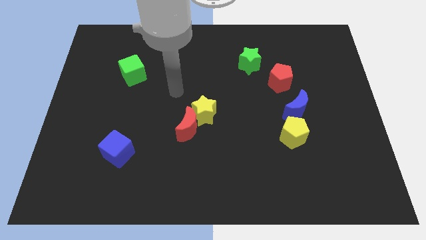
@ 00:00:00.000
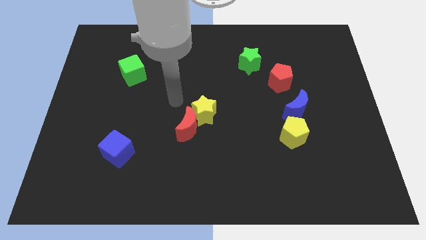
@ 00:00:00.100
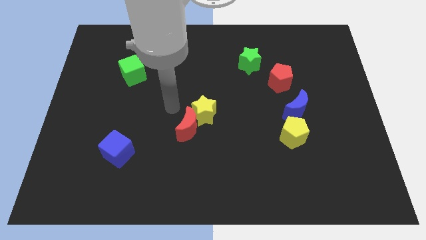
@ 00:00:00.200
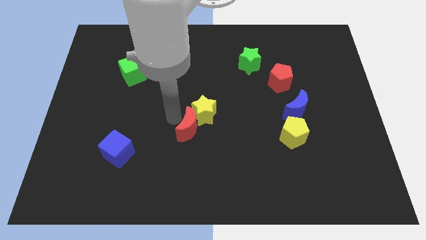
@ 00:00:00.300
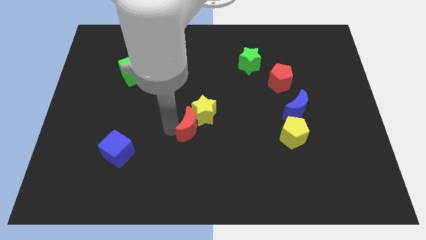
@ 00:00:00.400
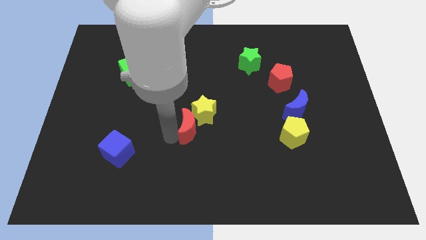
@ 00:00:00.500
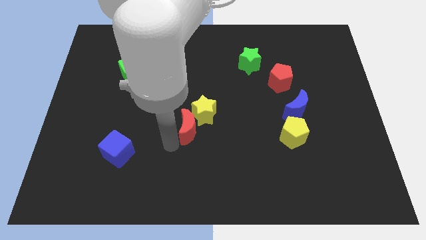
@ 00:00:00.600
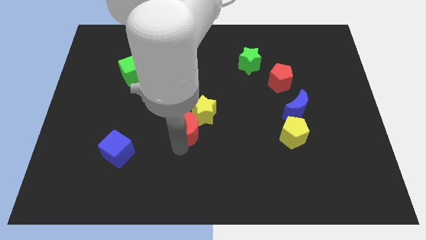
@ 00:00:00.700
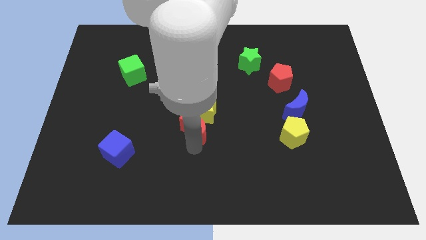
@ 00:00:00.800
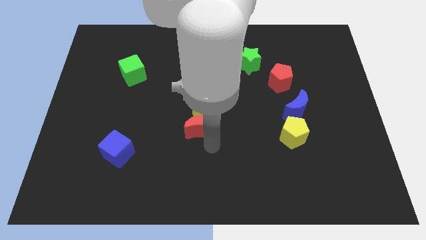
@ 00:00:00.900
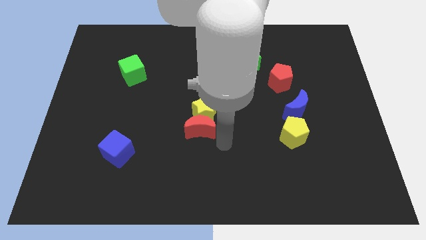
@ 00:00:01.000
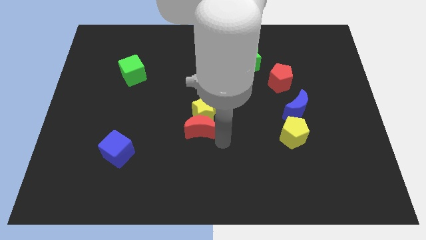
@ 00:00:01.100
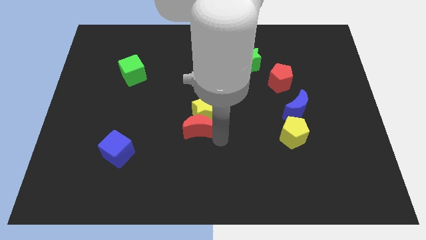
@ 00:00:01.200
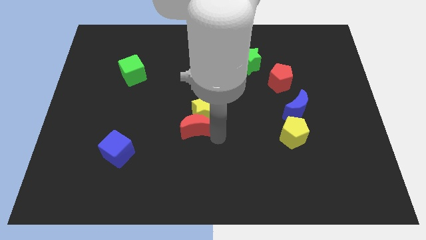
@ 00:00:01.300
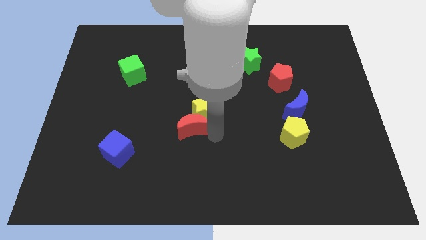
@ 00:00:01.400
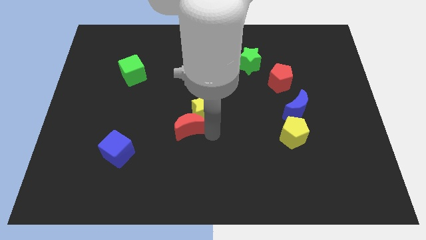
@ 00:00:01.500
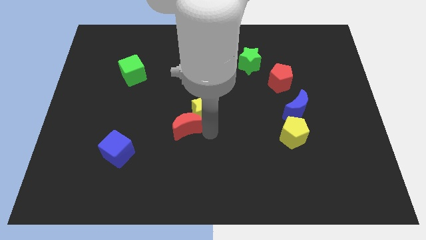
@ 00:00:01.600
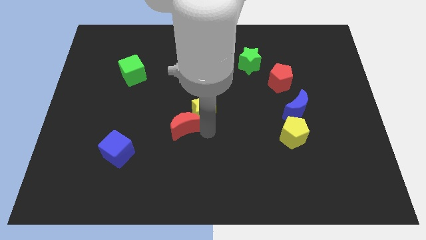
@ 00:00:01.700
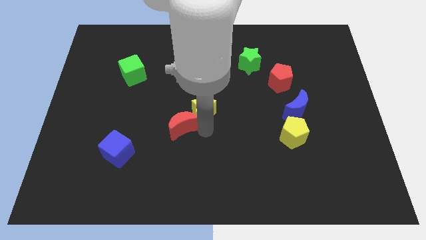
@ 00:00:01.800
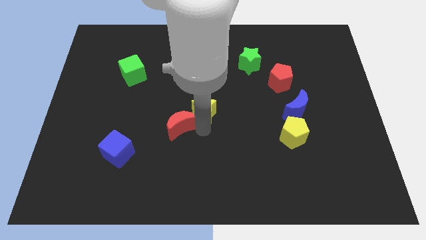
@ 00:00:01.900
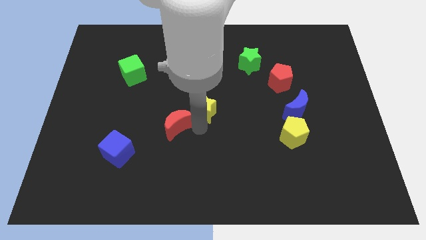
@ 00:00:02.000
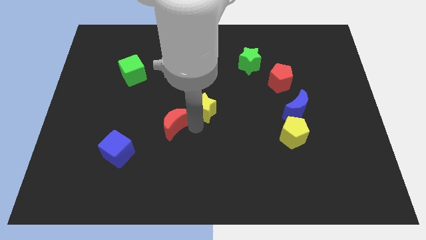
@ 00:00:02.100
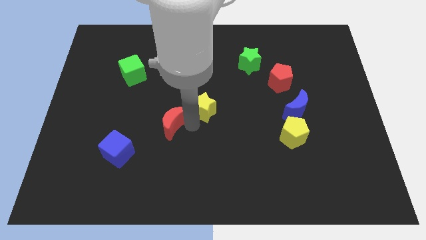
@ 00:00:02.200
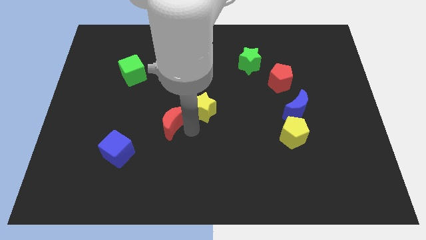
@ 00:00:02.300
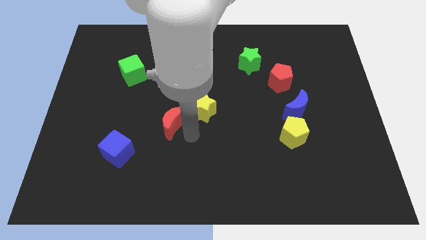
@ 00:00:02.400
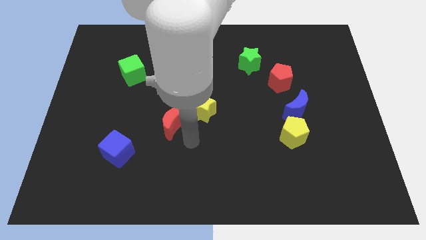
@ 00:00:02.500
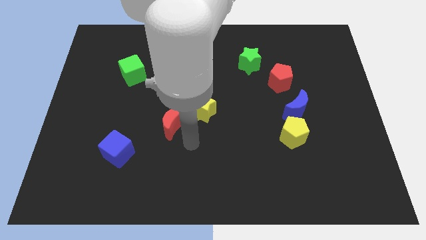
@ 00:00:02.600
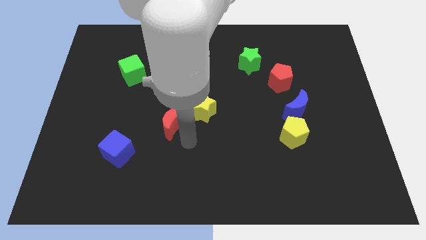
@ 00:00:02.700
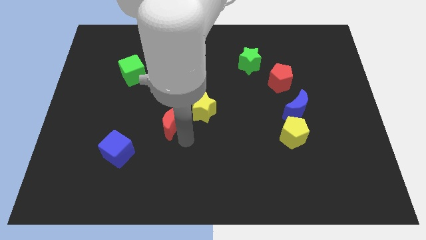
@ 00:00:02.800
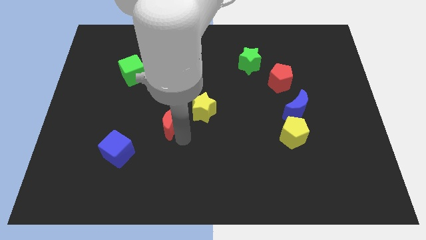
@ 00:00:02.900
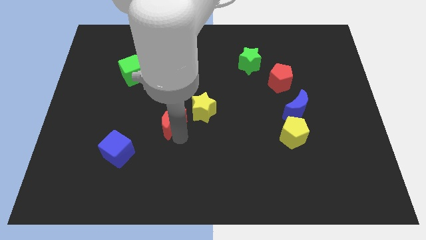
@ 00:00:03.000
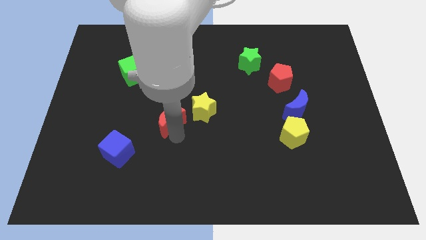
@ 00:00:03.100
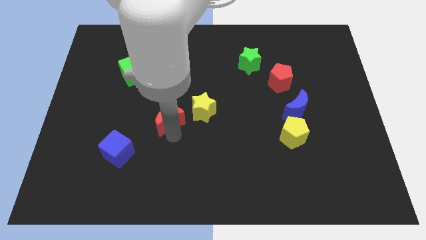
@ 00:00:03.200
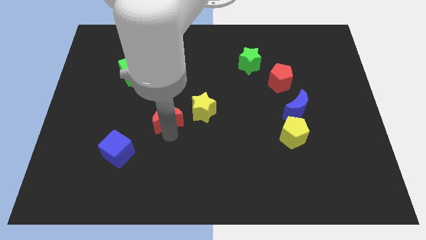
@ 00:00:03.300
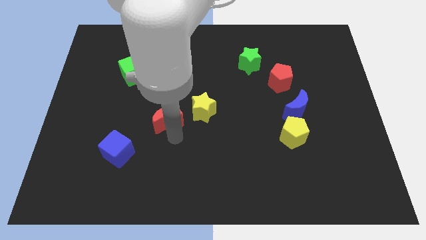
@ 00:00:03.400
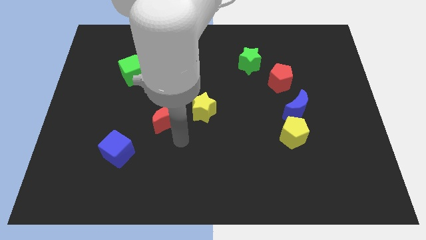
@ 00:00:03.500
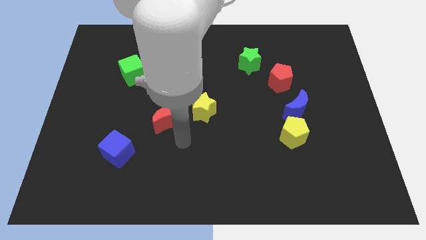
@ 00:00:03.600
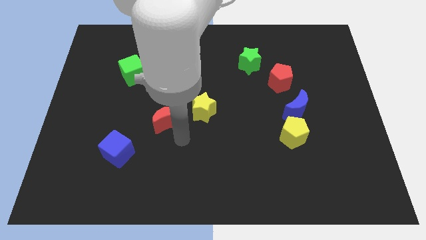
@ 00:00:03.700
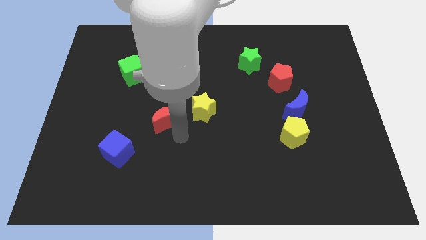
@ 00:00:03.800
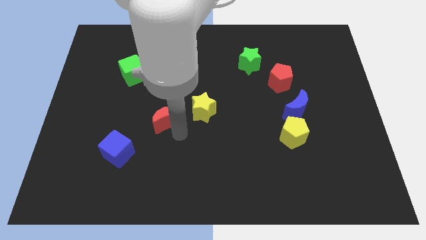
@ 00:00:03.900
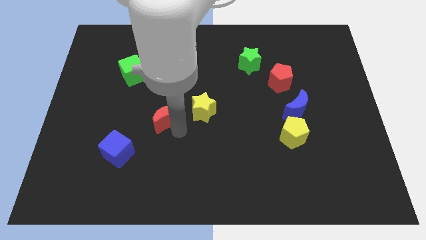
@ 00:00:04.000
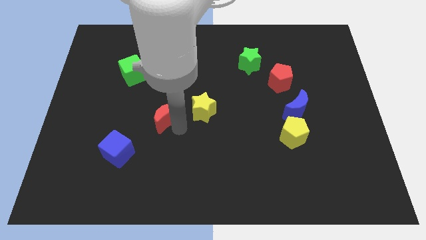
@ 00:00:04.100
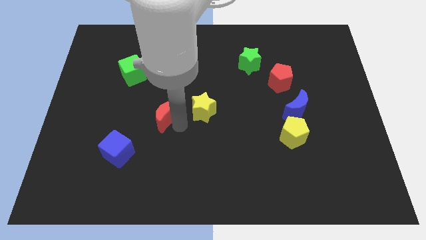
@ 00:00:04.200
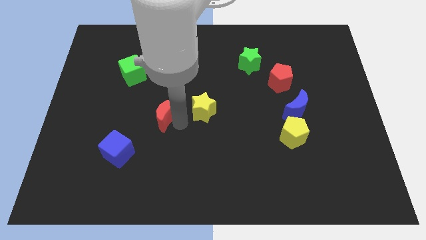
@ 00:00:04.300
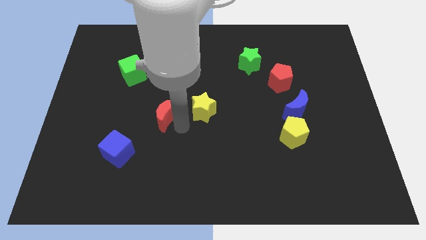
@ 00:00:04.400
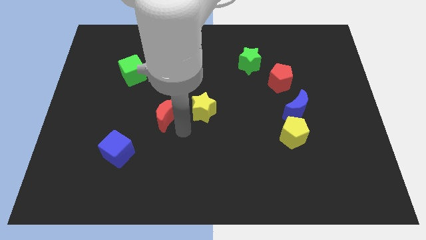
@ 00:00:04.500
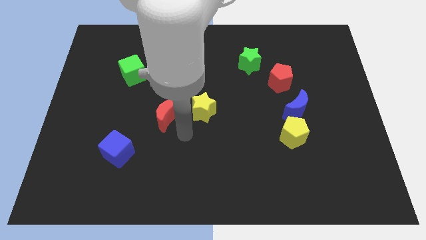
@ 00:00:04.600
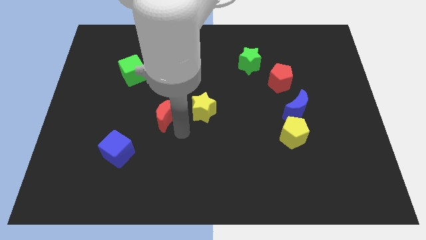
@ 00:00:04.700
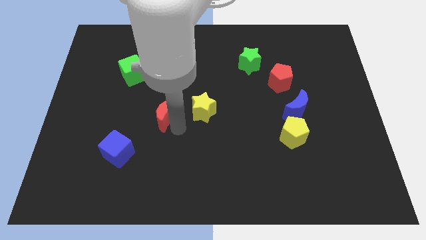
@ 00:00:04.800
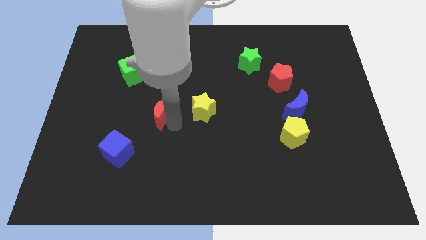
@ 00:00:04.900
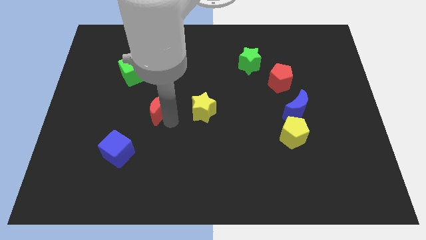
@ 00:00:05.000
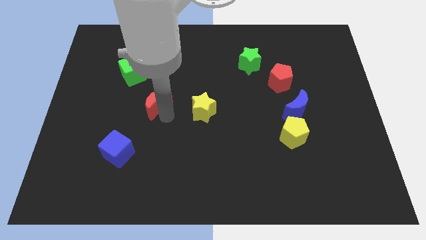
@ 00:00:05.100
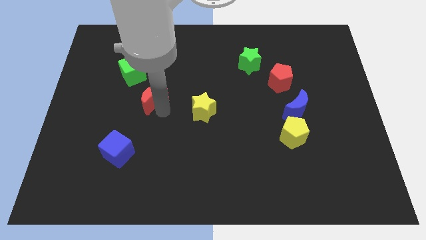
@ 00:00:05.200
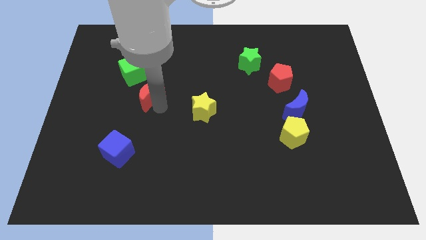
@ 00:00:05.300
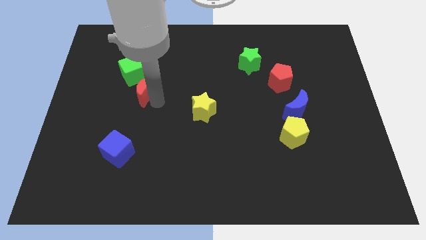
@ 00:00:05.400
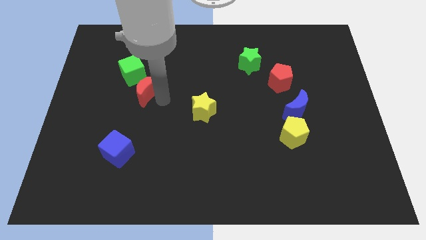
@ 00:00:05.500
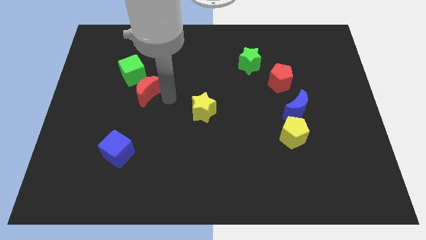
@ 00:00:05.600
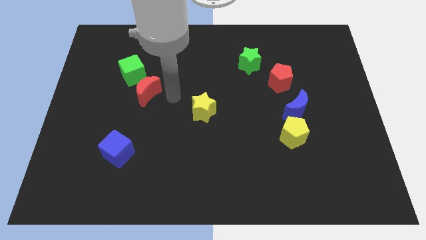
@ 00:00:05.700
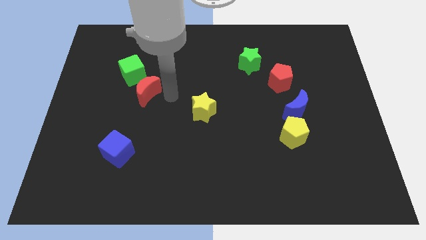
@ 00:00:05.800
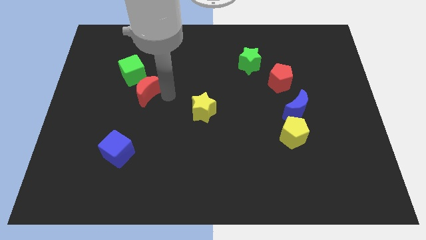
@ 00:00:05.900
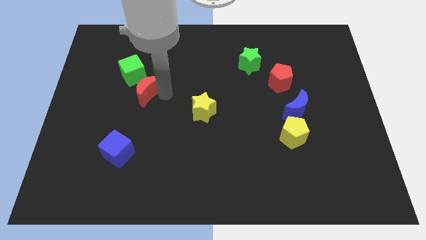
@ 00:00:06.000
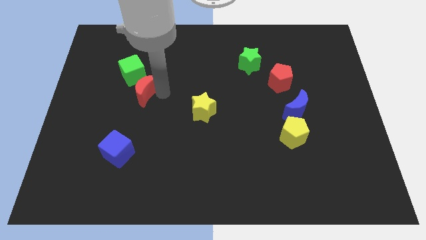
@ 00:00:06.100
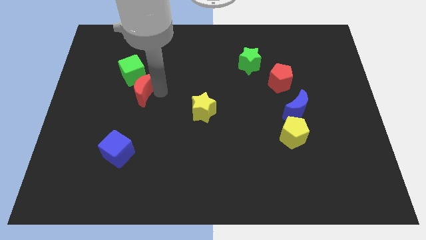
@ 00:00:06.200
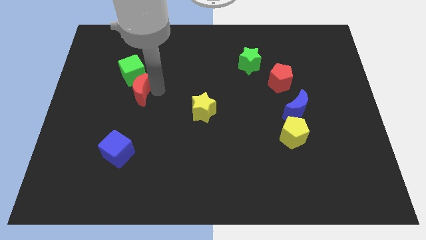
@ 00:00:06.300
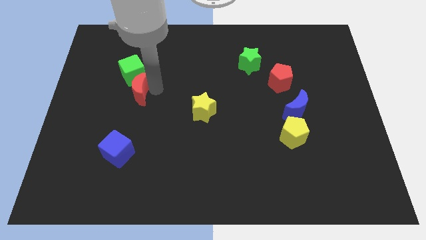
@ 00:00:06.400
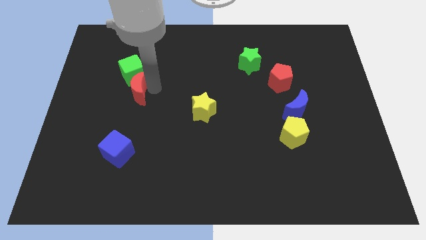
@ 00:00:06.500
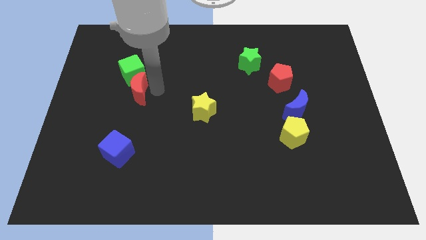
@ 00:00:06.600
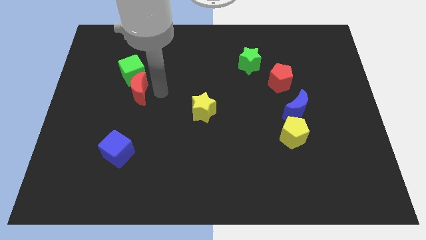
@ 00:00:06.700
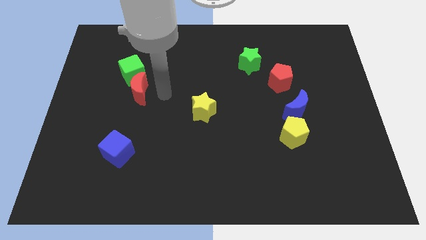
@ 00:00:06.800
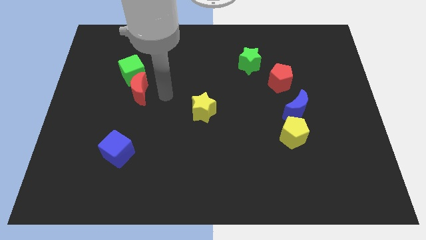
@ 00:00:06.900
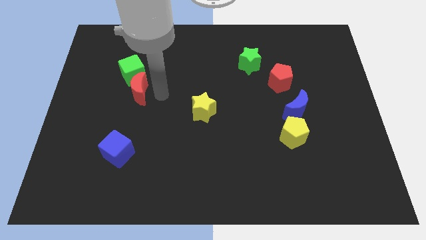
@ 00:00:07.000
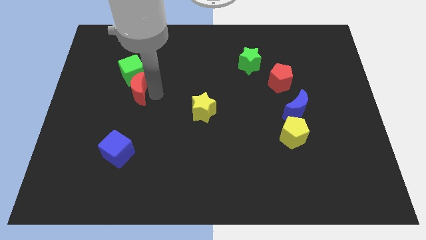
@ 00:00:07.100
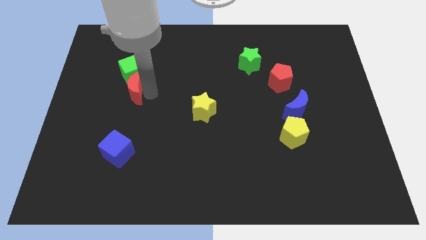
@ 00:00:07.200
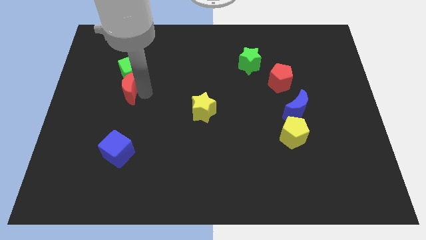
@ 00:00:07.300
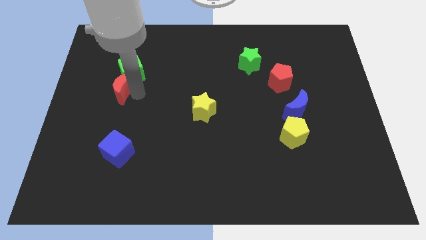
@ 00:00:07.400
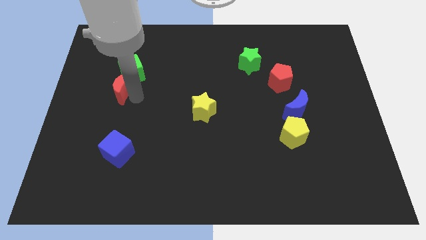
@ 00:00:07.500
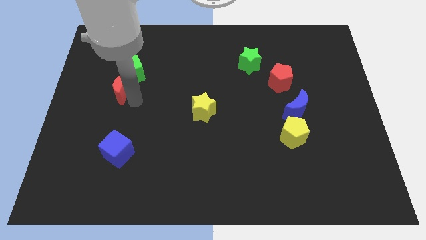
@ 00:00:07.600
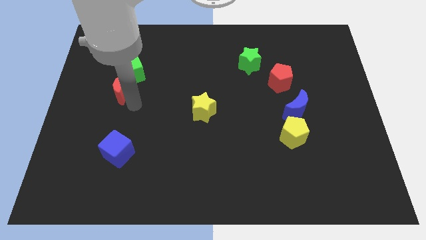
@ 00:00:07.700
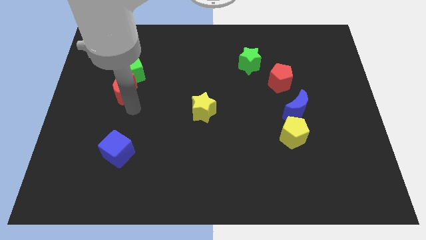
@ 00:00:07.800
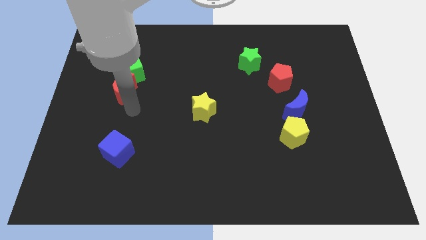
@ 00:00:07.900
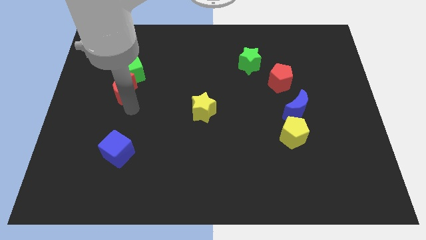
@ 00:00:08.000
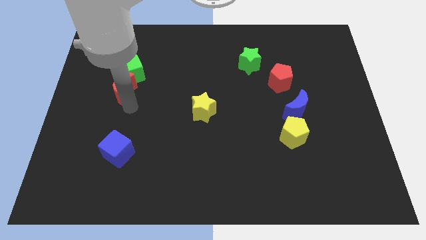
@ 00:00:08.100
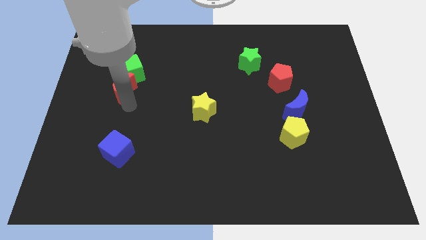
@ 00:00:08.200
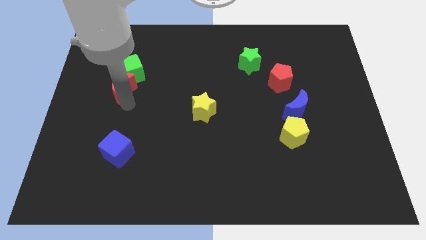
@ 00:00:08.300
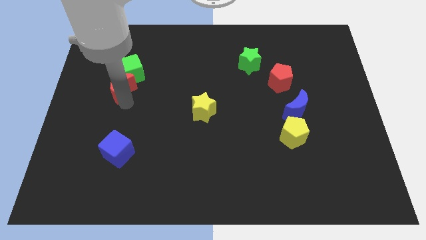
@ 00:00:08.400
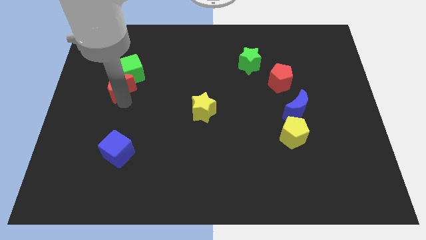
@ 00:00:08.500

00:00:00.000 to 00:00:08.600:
move the red moon up and then to the left
